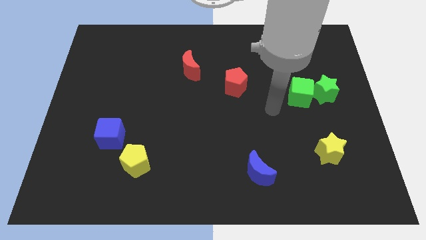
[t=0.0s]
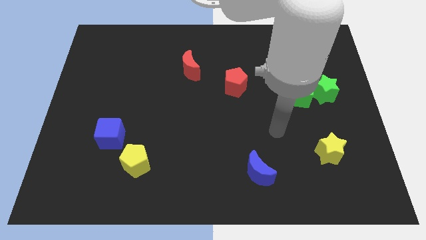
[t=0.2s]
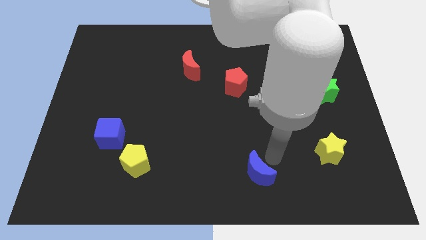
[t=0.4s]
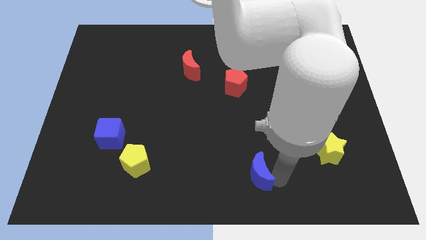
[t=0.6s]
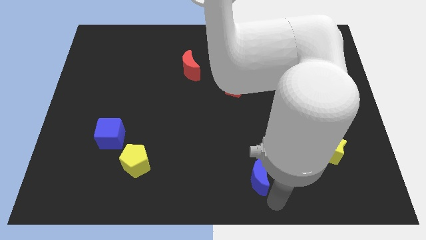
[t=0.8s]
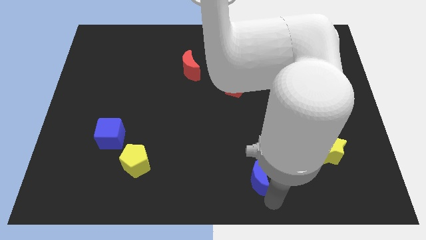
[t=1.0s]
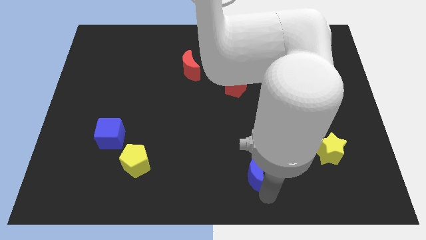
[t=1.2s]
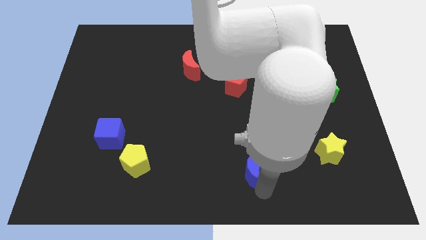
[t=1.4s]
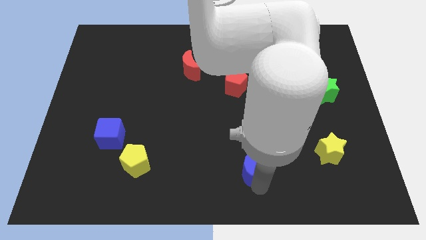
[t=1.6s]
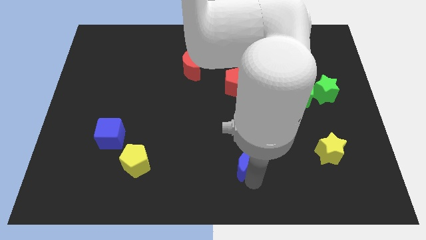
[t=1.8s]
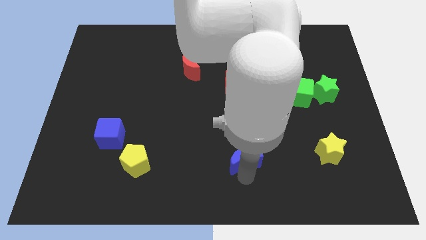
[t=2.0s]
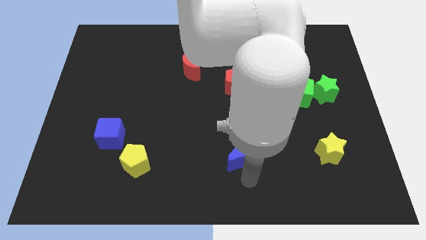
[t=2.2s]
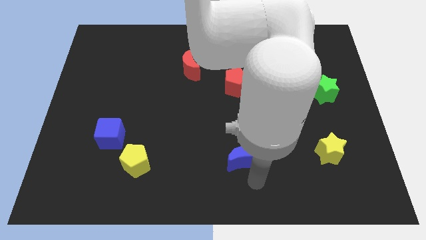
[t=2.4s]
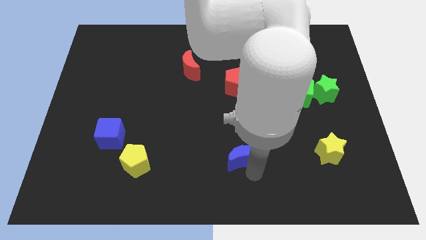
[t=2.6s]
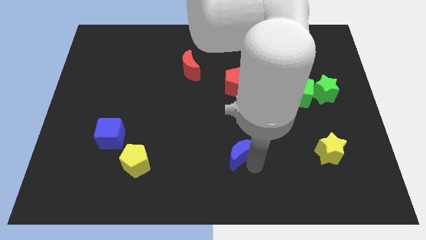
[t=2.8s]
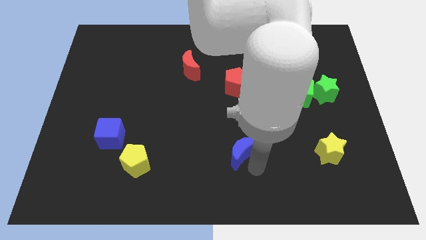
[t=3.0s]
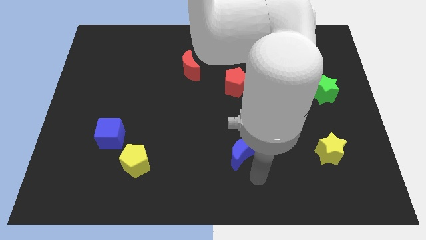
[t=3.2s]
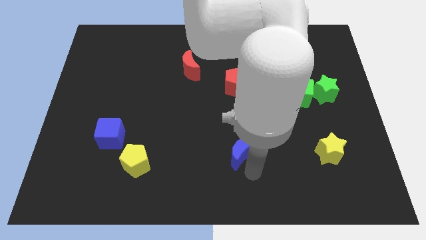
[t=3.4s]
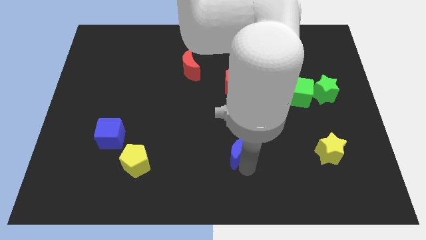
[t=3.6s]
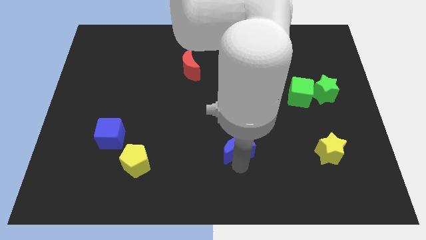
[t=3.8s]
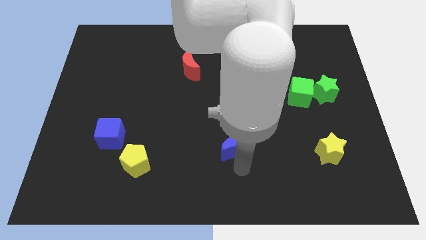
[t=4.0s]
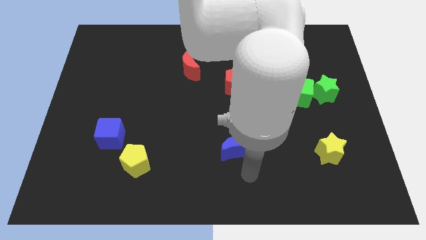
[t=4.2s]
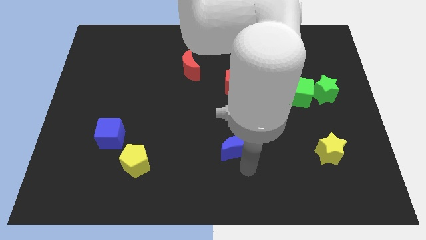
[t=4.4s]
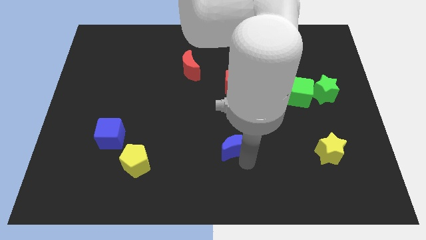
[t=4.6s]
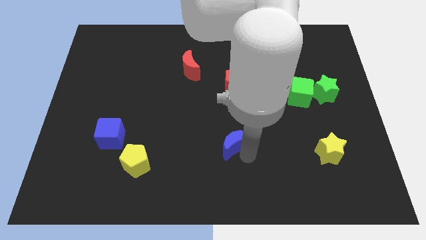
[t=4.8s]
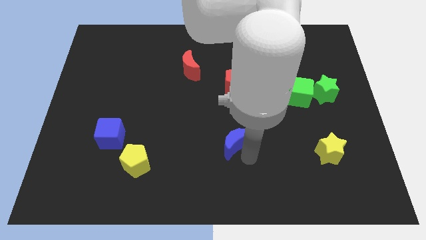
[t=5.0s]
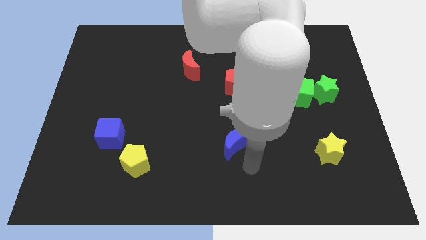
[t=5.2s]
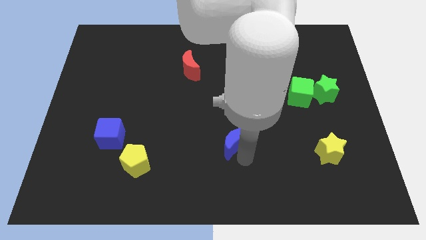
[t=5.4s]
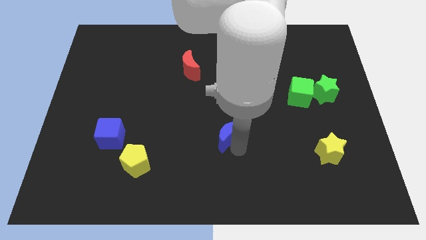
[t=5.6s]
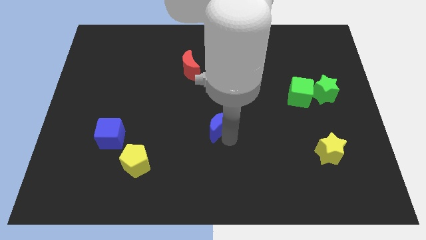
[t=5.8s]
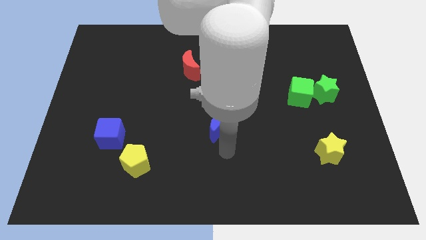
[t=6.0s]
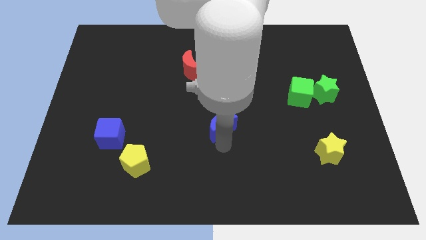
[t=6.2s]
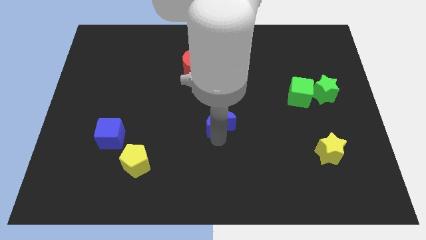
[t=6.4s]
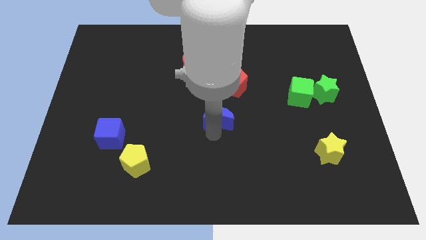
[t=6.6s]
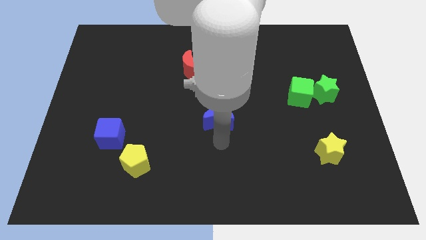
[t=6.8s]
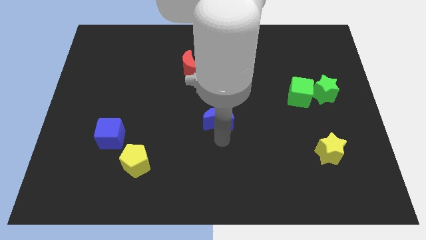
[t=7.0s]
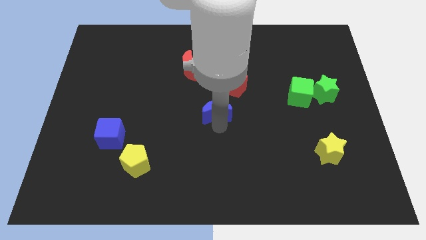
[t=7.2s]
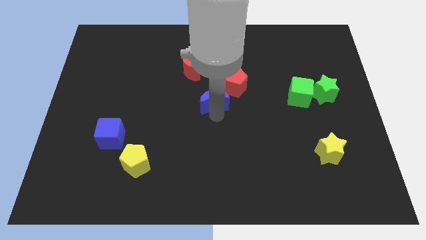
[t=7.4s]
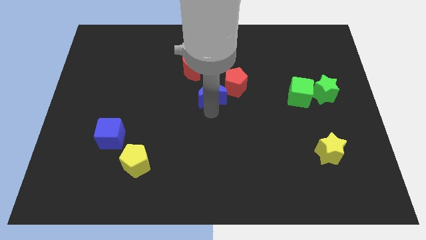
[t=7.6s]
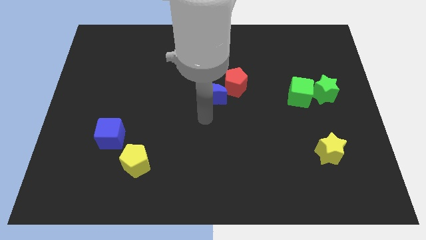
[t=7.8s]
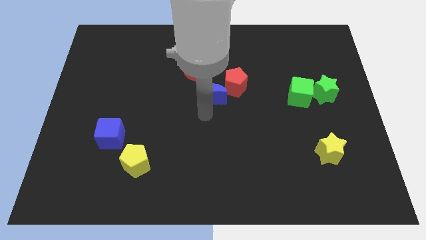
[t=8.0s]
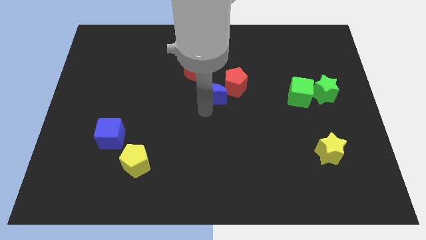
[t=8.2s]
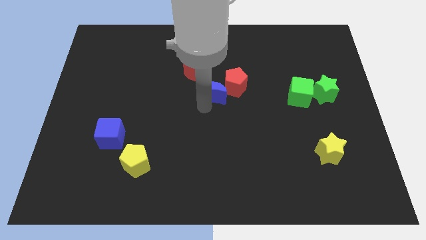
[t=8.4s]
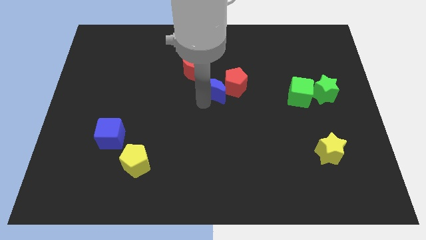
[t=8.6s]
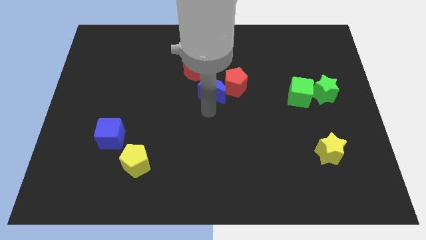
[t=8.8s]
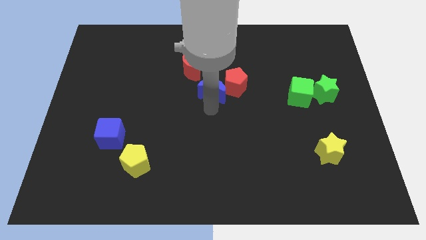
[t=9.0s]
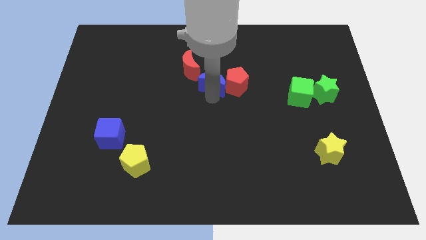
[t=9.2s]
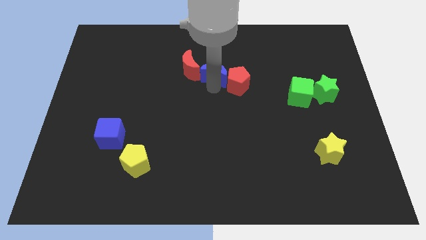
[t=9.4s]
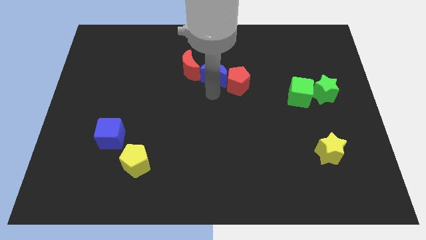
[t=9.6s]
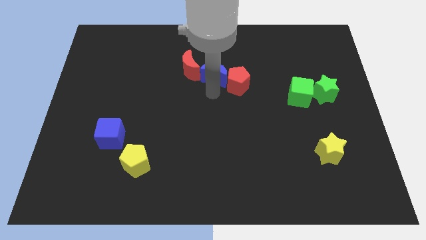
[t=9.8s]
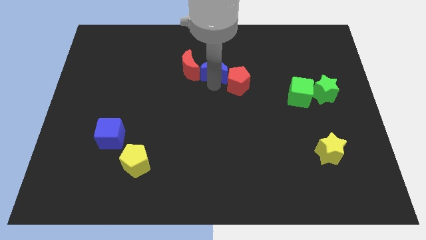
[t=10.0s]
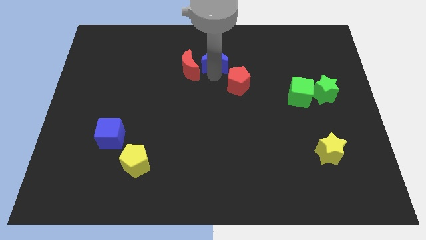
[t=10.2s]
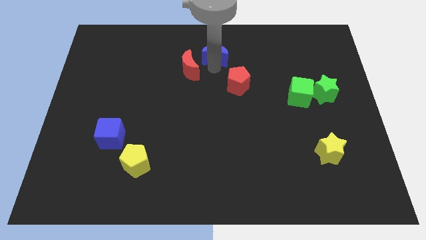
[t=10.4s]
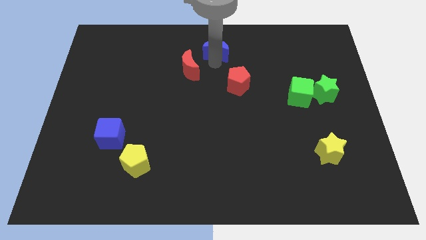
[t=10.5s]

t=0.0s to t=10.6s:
put the blue moon to the top side

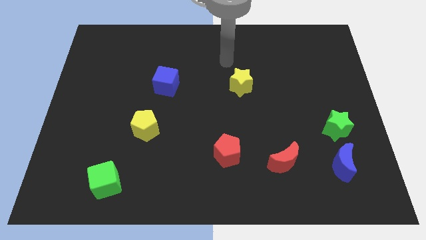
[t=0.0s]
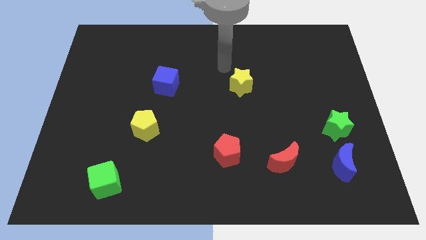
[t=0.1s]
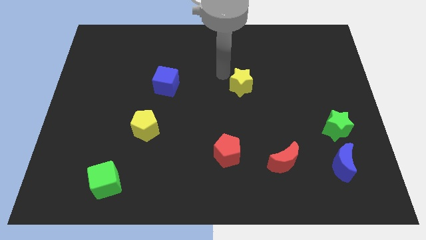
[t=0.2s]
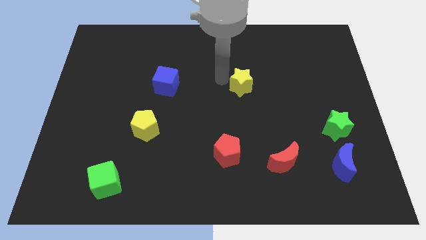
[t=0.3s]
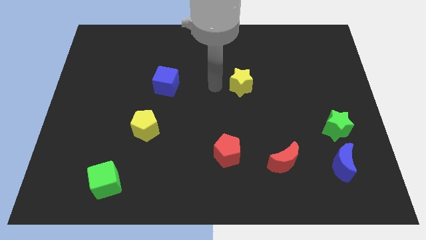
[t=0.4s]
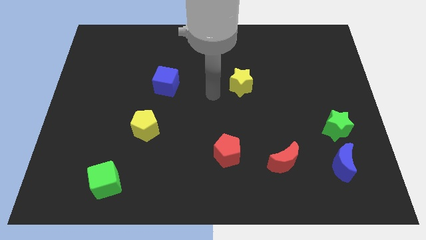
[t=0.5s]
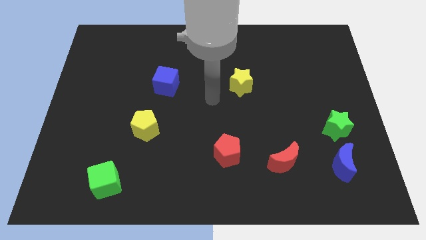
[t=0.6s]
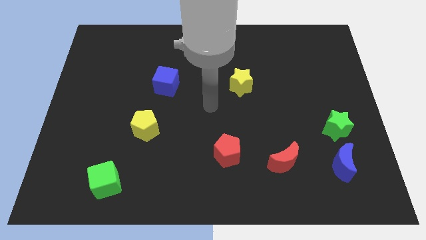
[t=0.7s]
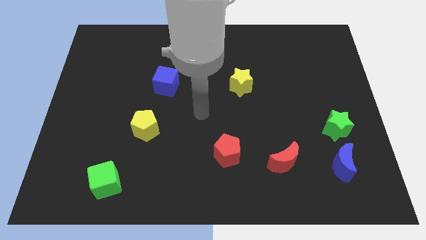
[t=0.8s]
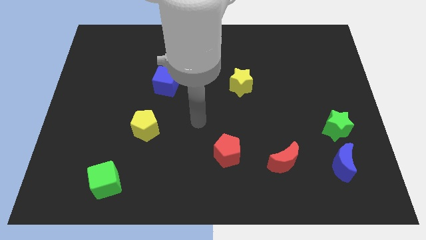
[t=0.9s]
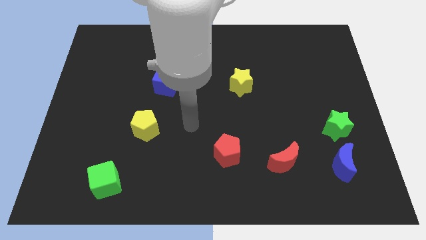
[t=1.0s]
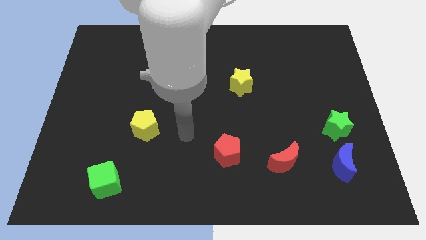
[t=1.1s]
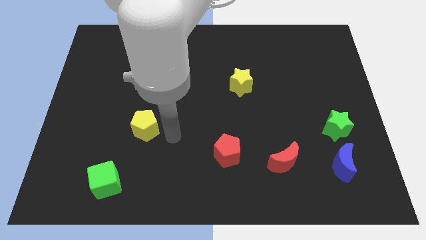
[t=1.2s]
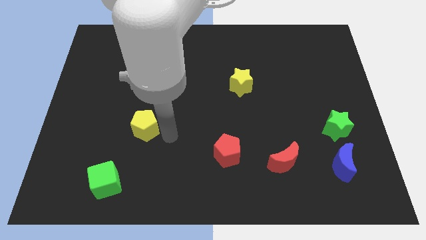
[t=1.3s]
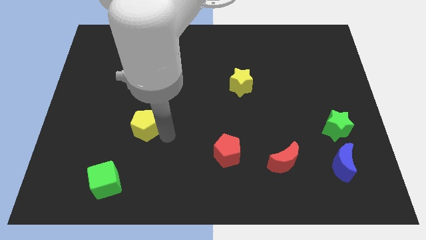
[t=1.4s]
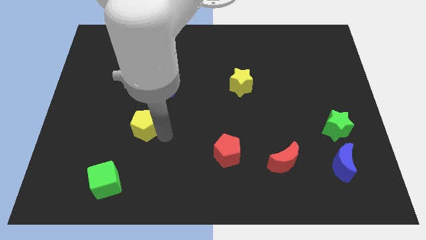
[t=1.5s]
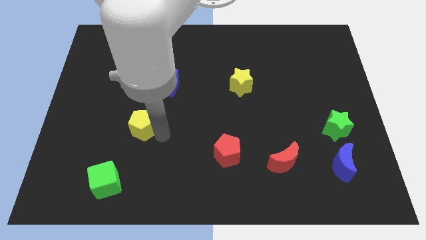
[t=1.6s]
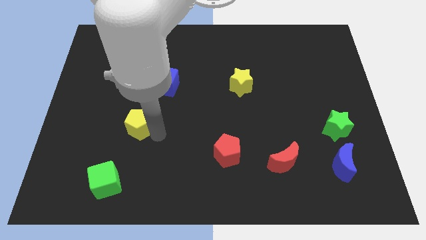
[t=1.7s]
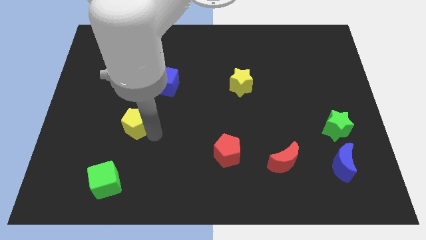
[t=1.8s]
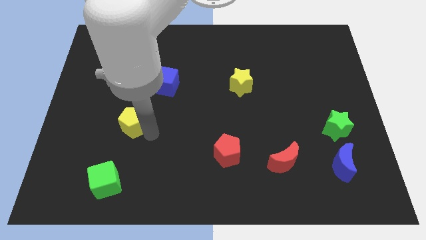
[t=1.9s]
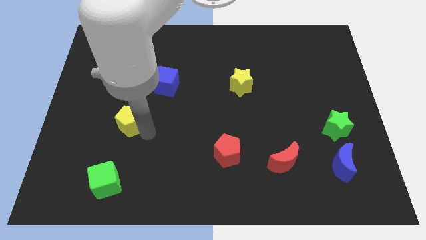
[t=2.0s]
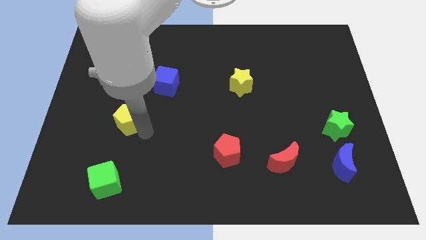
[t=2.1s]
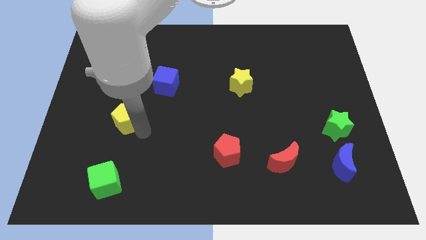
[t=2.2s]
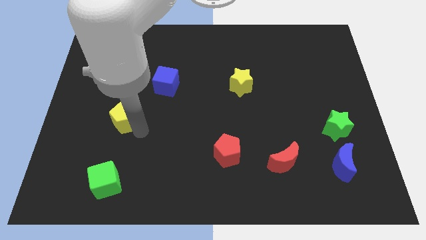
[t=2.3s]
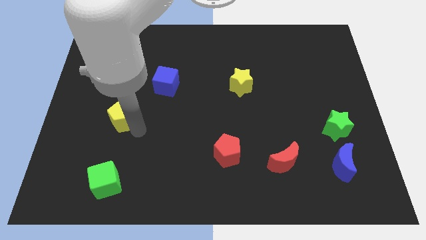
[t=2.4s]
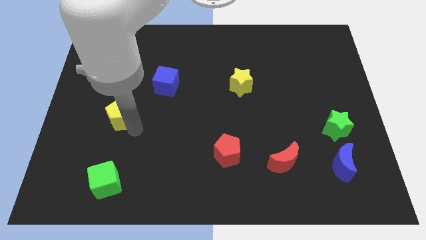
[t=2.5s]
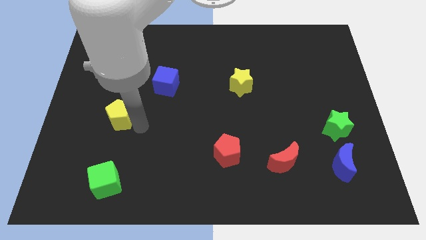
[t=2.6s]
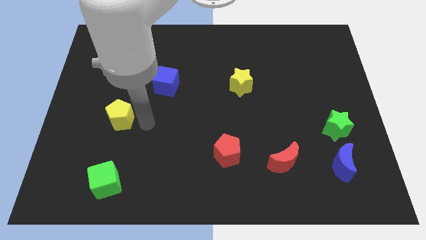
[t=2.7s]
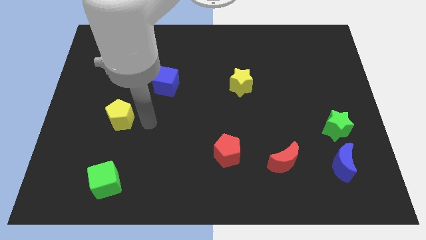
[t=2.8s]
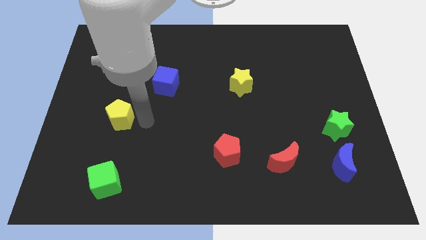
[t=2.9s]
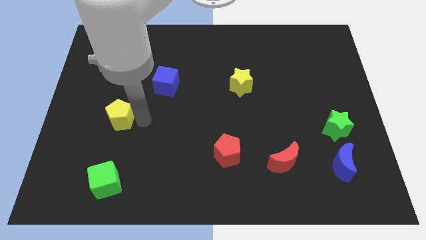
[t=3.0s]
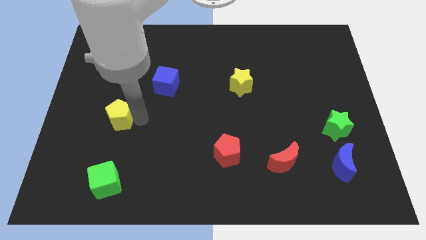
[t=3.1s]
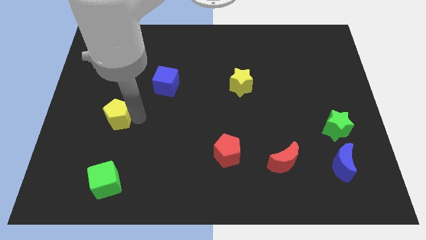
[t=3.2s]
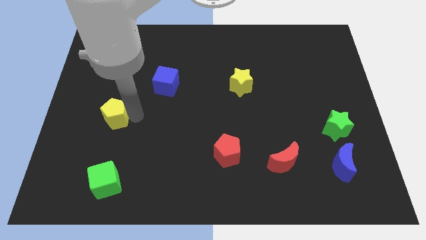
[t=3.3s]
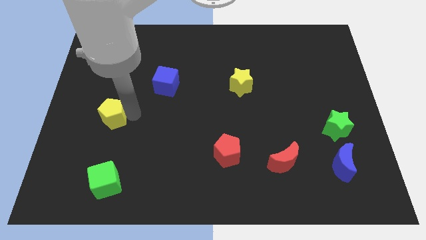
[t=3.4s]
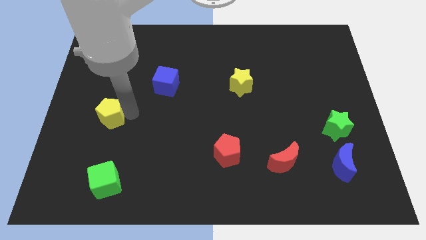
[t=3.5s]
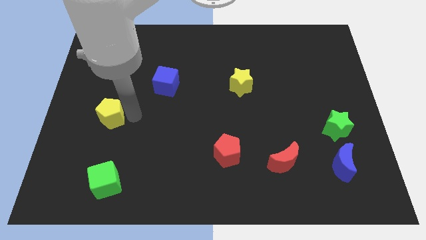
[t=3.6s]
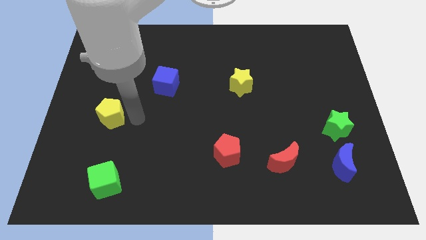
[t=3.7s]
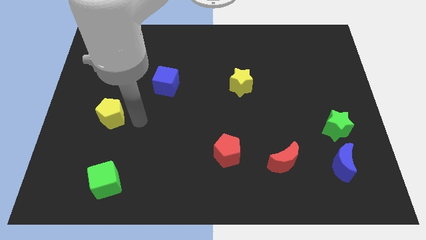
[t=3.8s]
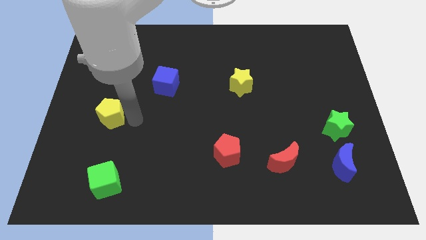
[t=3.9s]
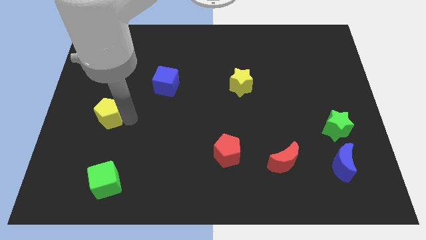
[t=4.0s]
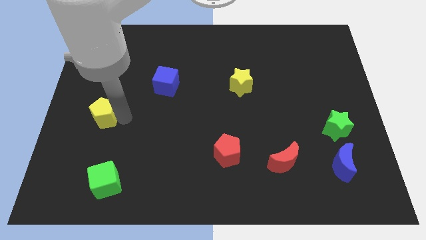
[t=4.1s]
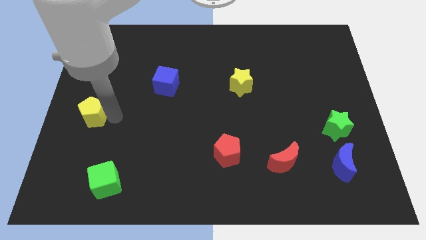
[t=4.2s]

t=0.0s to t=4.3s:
push the yellow pentagon to the center left
